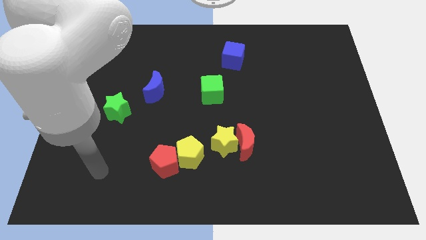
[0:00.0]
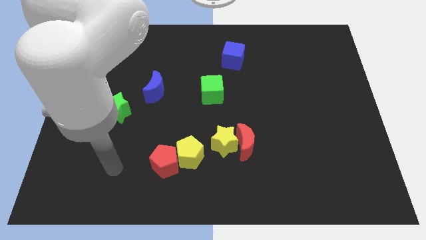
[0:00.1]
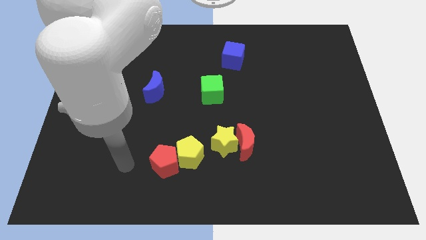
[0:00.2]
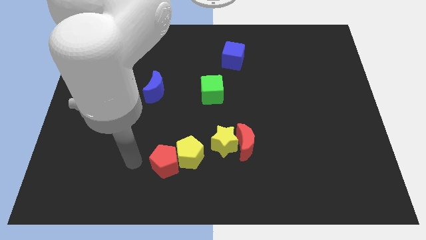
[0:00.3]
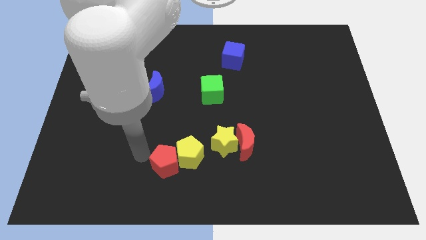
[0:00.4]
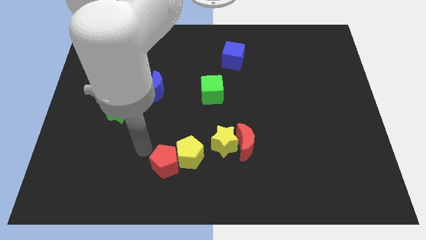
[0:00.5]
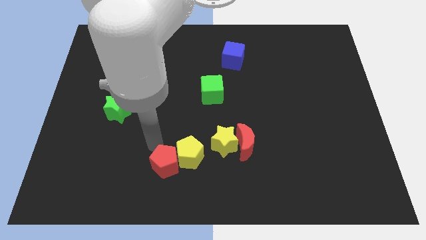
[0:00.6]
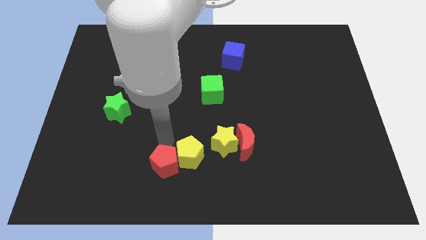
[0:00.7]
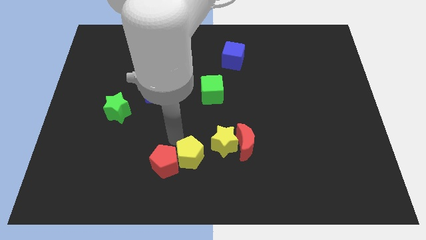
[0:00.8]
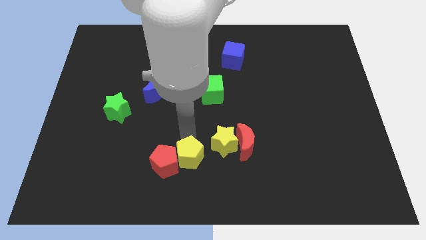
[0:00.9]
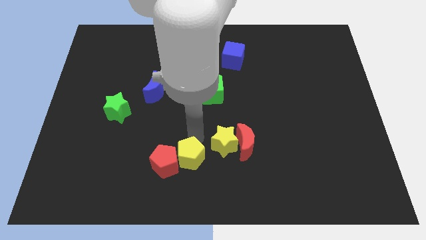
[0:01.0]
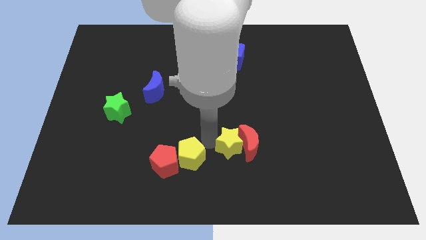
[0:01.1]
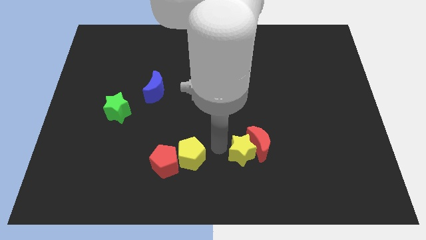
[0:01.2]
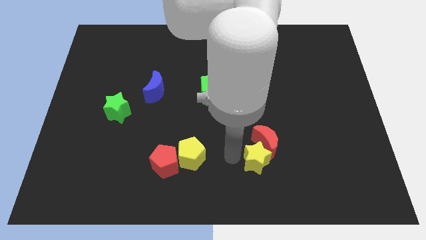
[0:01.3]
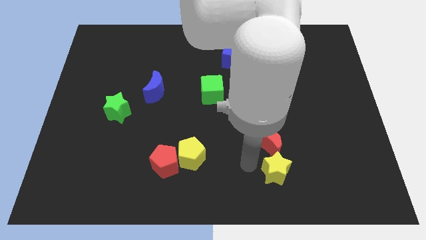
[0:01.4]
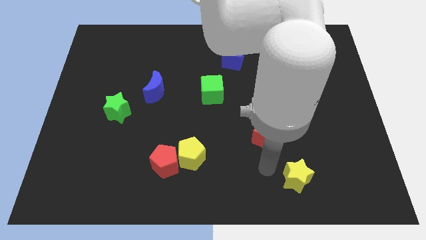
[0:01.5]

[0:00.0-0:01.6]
separate the red moon from the yellow star

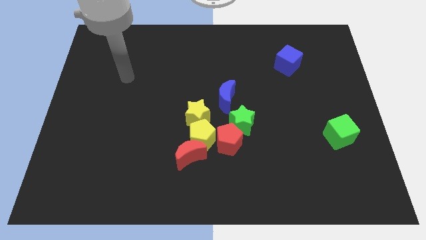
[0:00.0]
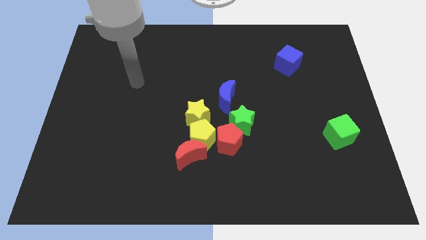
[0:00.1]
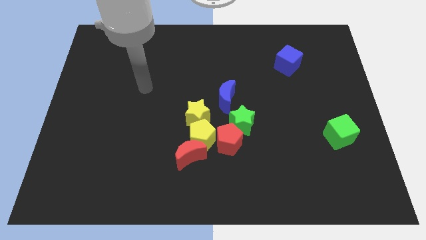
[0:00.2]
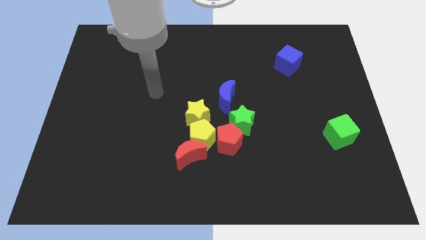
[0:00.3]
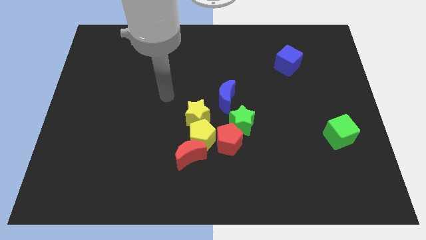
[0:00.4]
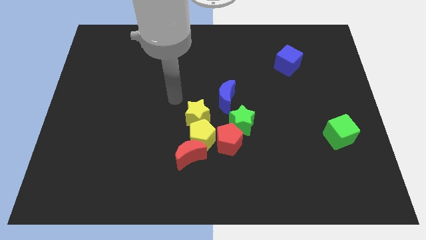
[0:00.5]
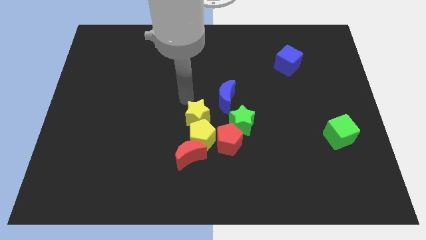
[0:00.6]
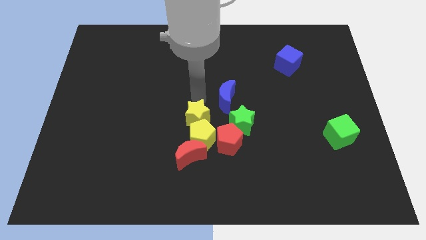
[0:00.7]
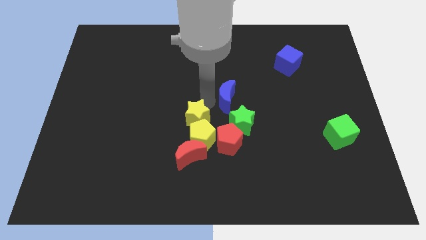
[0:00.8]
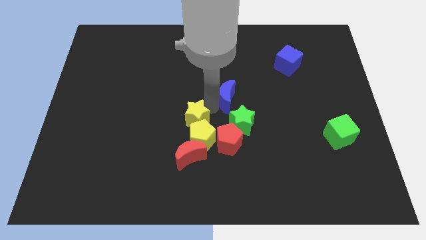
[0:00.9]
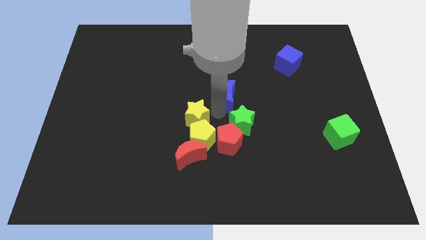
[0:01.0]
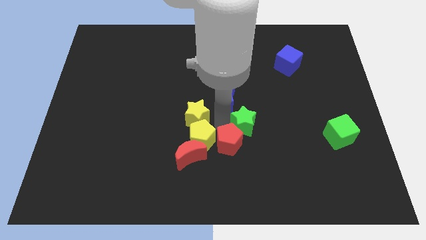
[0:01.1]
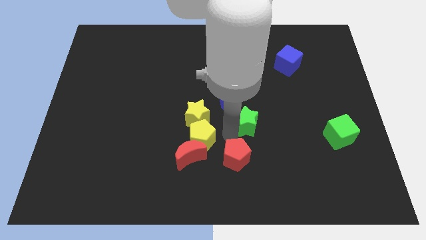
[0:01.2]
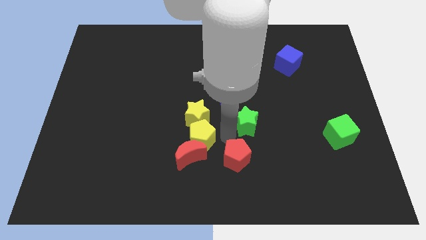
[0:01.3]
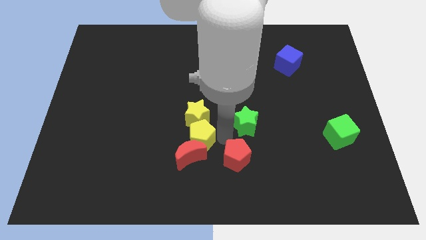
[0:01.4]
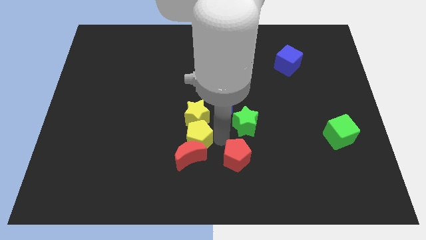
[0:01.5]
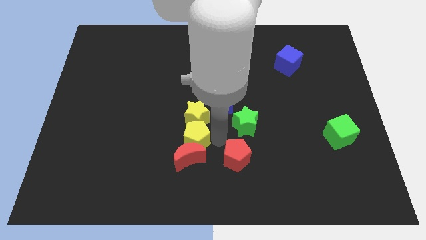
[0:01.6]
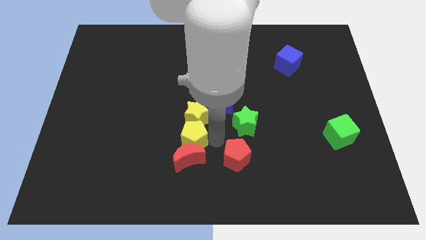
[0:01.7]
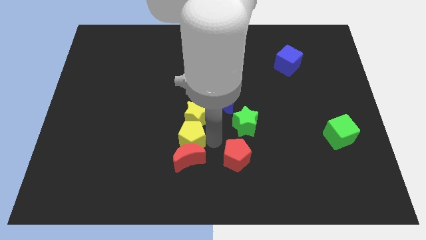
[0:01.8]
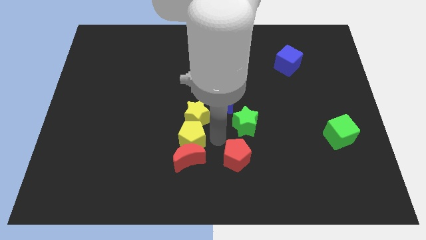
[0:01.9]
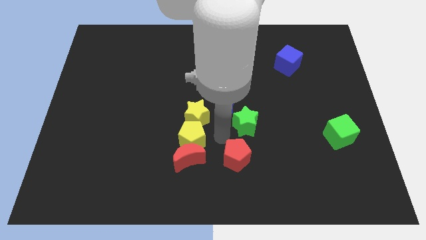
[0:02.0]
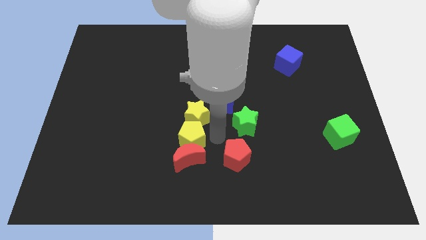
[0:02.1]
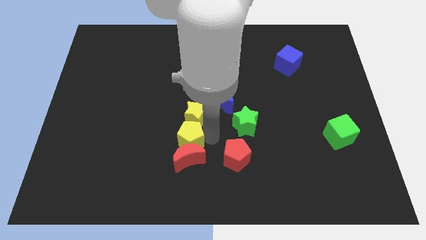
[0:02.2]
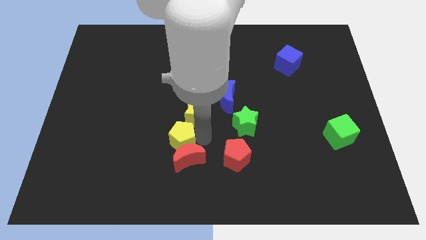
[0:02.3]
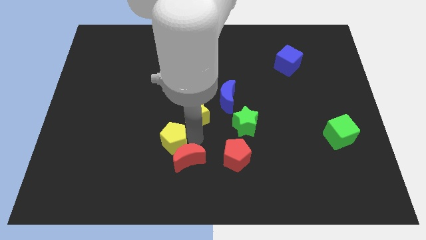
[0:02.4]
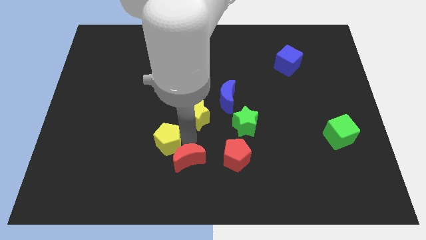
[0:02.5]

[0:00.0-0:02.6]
pull the yellow pentagon apart from the clump

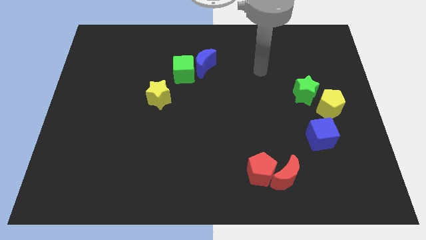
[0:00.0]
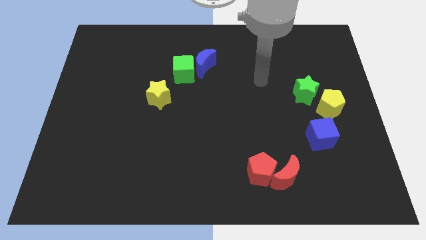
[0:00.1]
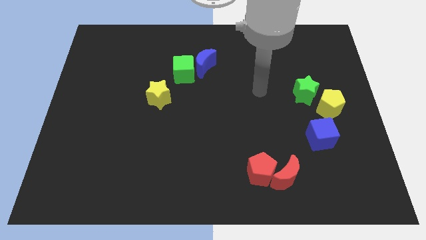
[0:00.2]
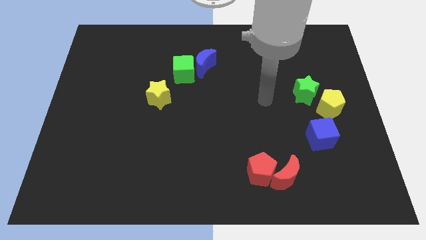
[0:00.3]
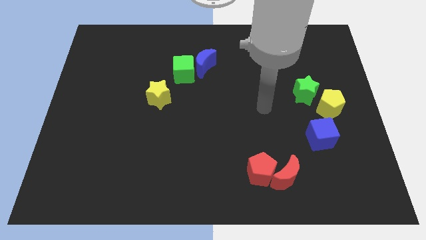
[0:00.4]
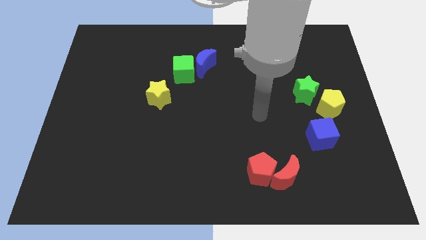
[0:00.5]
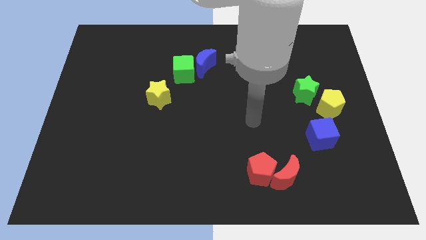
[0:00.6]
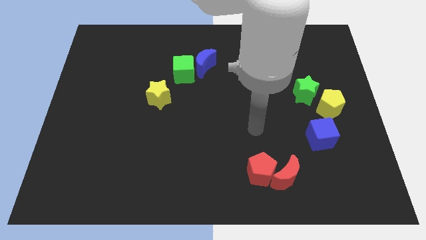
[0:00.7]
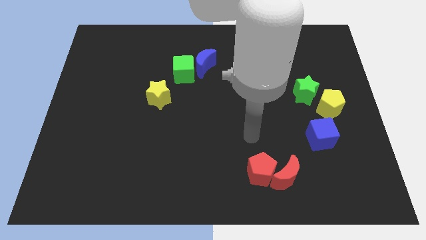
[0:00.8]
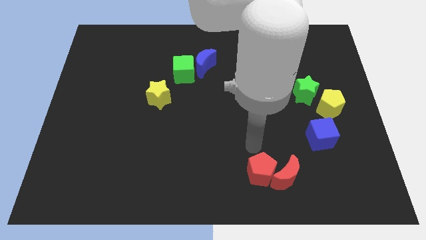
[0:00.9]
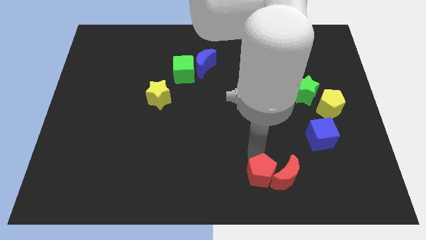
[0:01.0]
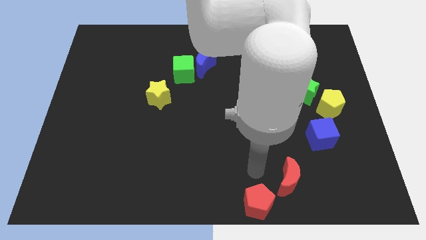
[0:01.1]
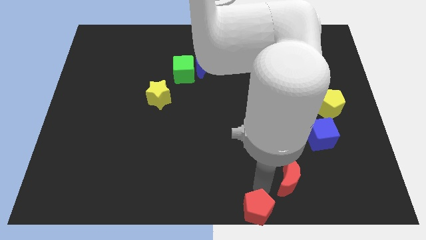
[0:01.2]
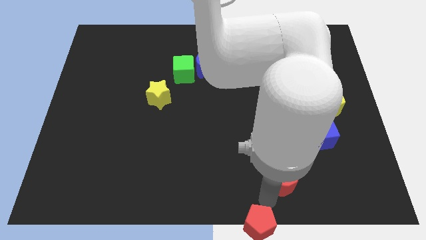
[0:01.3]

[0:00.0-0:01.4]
pull the red moon apart from the red pentagon

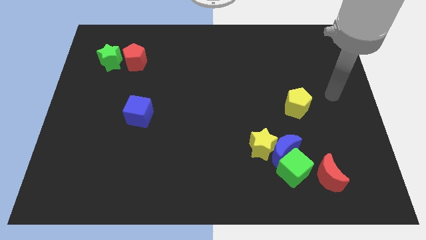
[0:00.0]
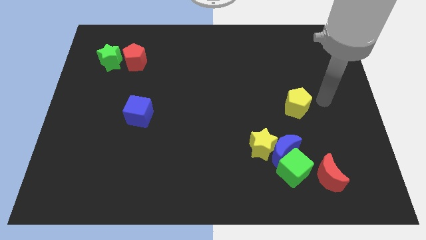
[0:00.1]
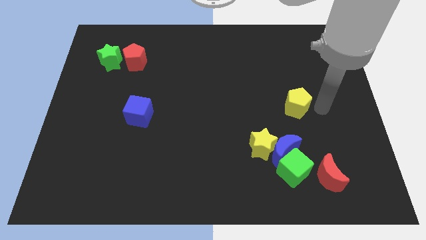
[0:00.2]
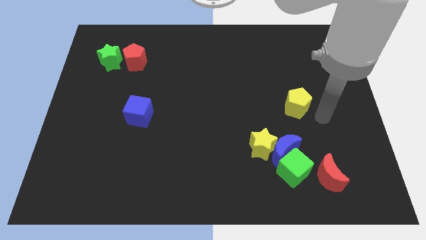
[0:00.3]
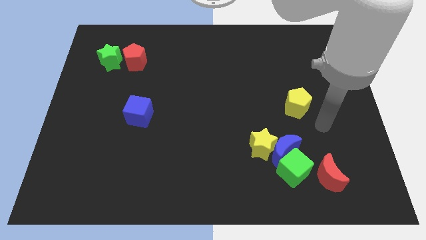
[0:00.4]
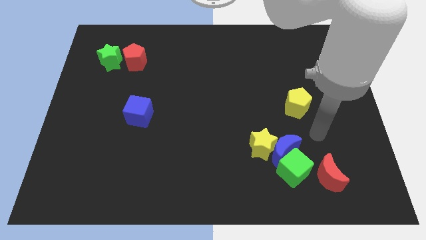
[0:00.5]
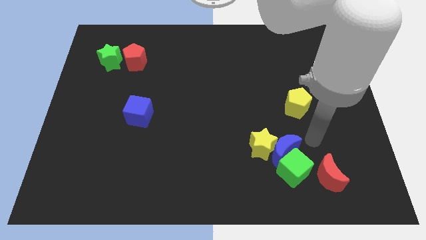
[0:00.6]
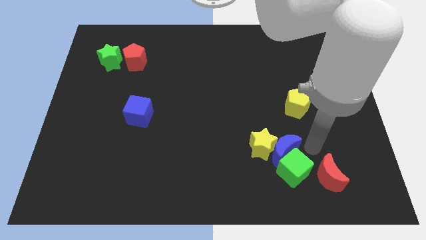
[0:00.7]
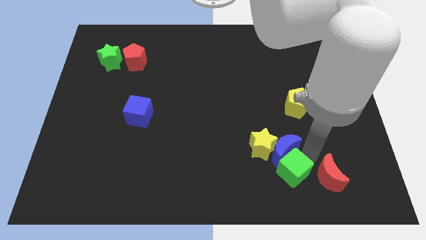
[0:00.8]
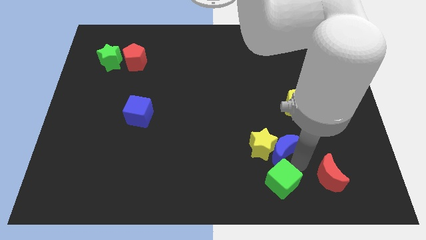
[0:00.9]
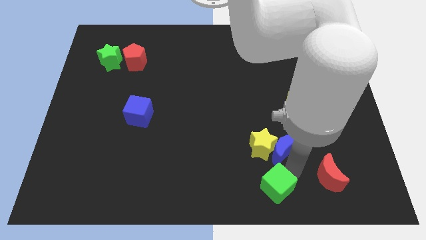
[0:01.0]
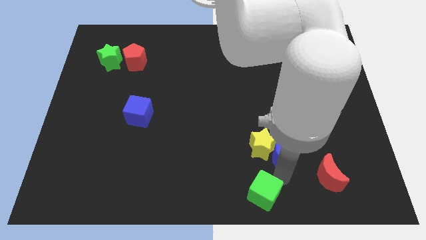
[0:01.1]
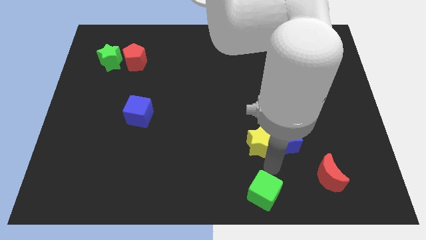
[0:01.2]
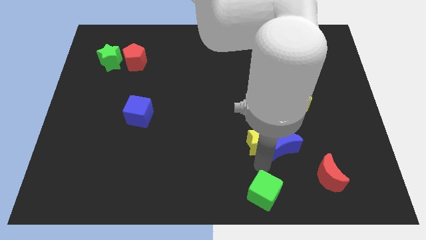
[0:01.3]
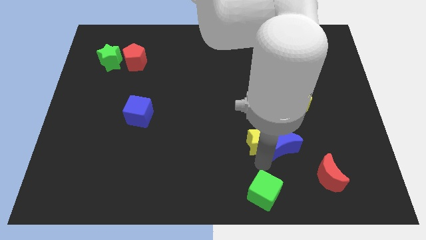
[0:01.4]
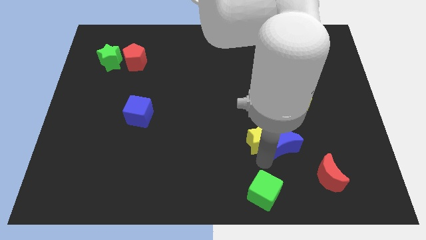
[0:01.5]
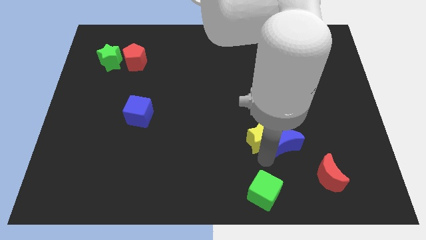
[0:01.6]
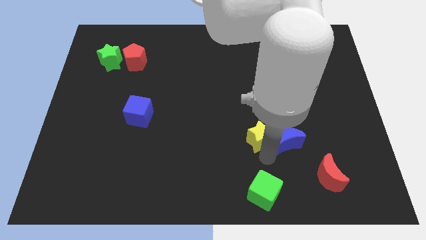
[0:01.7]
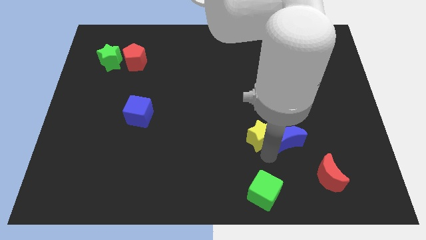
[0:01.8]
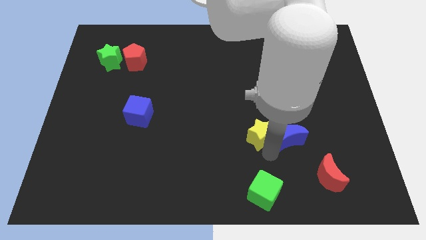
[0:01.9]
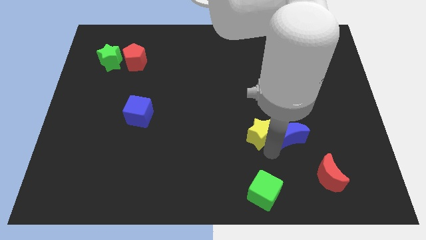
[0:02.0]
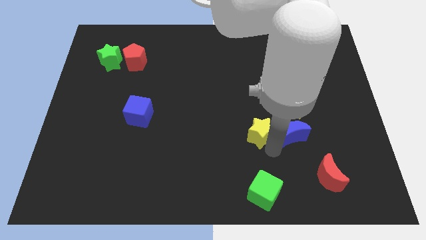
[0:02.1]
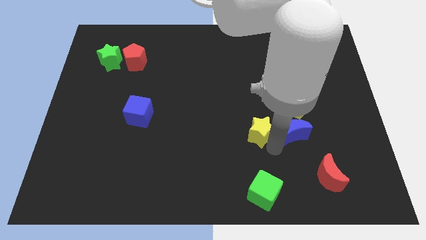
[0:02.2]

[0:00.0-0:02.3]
pull the blue moon apart from the yellow star and green cube

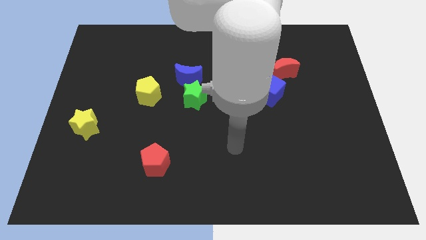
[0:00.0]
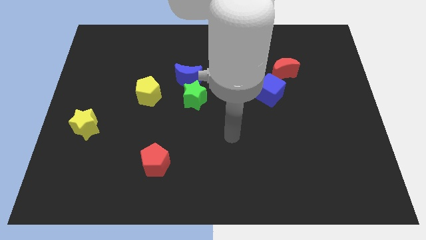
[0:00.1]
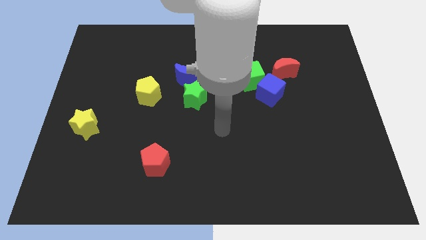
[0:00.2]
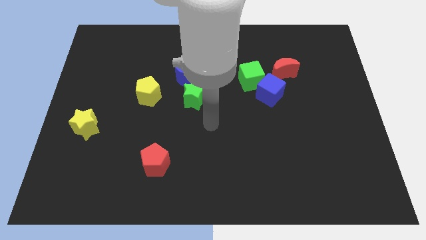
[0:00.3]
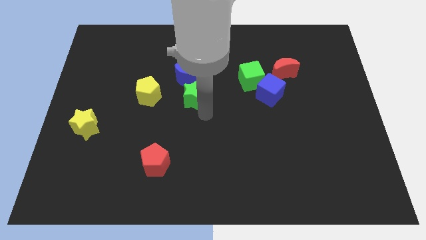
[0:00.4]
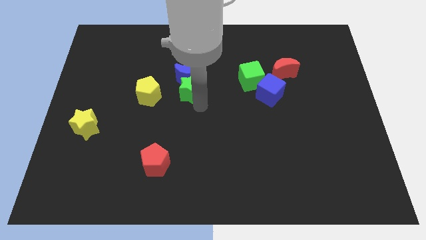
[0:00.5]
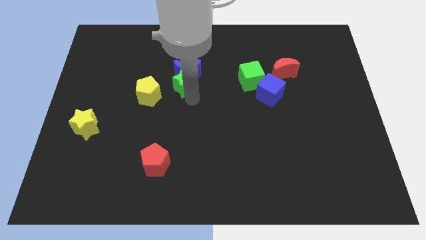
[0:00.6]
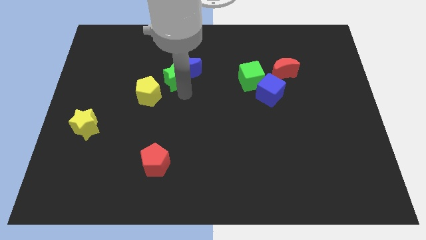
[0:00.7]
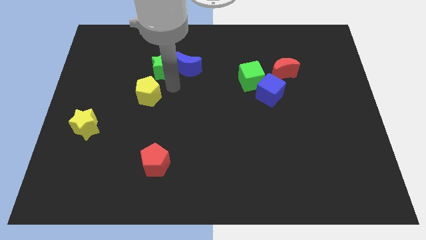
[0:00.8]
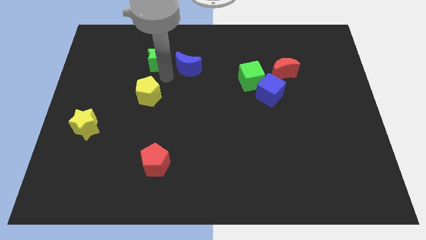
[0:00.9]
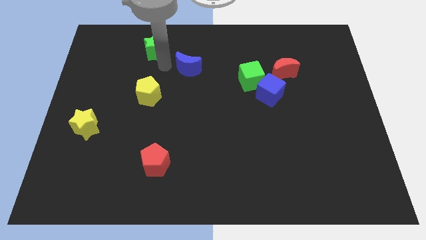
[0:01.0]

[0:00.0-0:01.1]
separate the blue moon from the green star

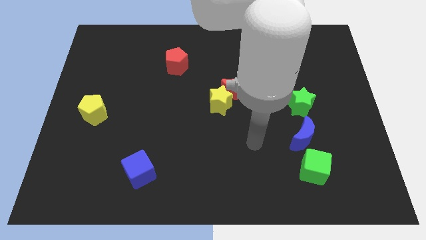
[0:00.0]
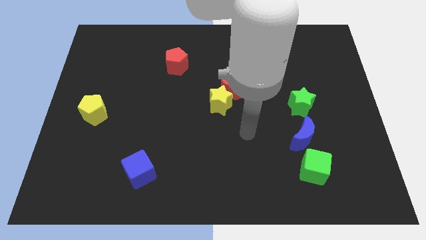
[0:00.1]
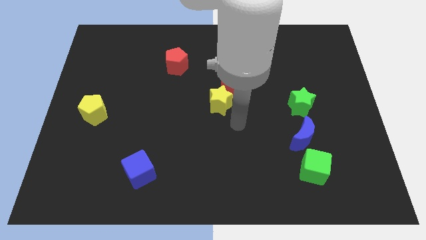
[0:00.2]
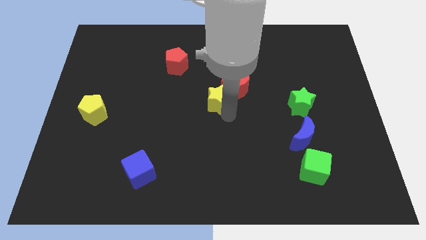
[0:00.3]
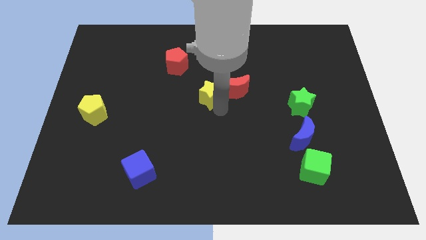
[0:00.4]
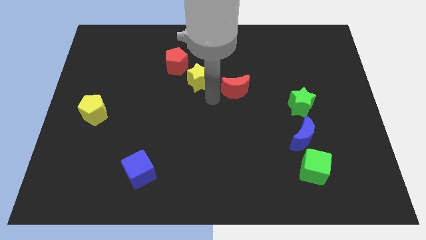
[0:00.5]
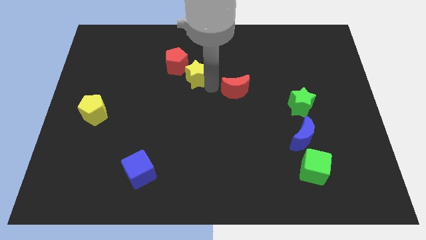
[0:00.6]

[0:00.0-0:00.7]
pull the red moon apart from the yellow star
